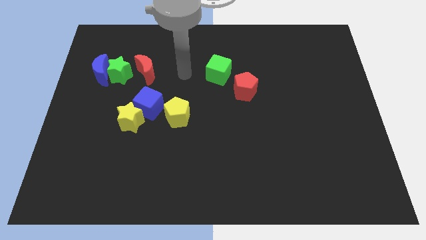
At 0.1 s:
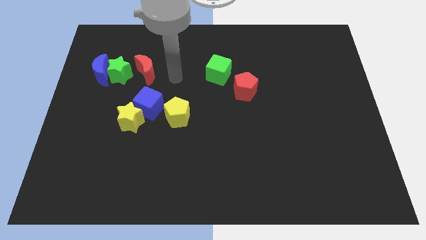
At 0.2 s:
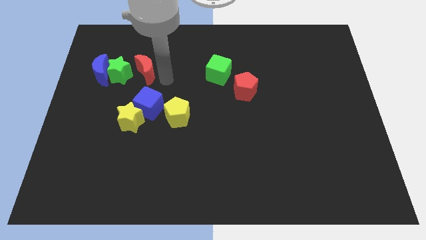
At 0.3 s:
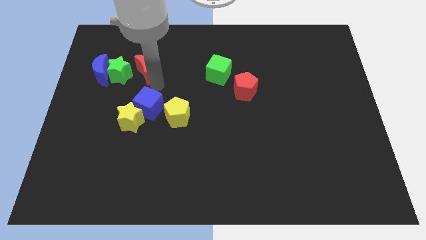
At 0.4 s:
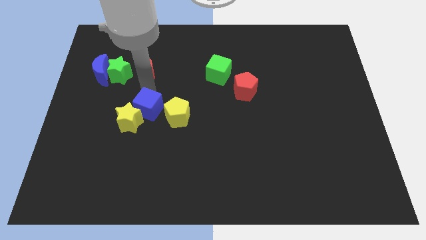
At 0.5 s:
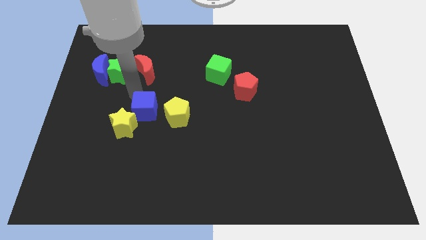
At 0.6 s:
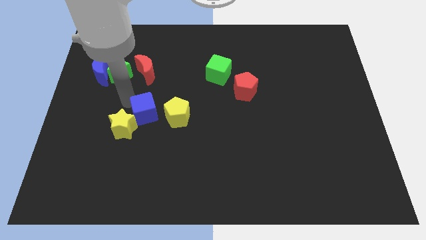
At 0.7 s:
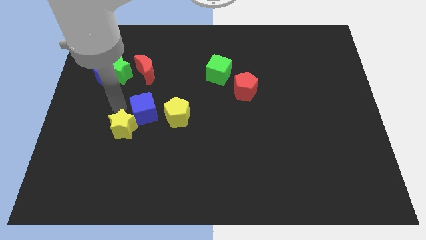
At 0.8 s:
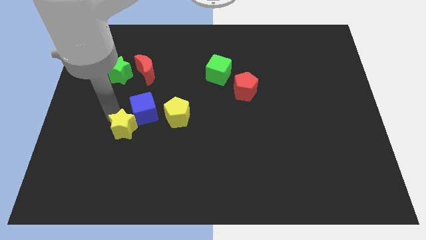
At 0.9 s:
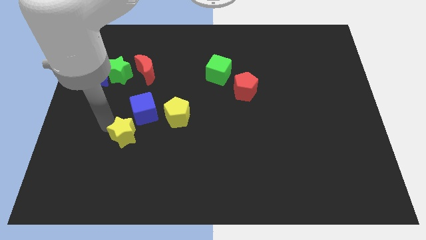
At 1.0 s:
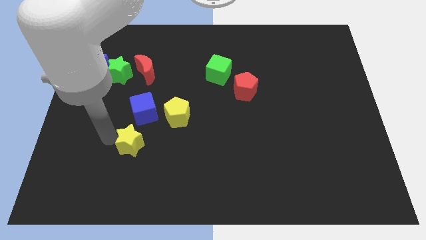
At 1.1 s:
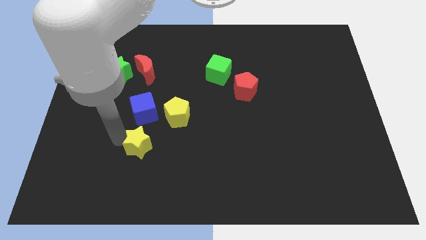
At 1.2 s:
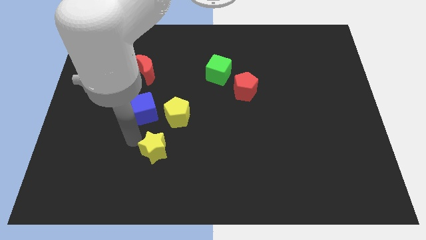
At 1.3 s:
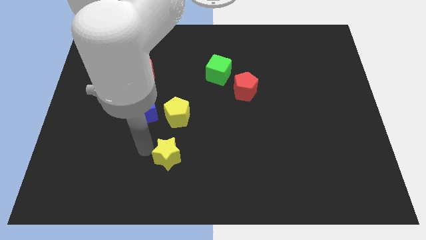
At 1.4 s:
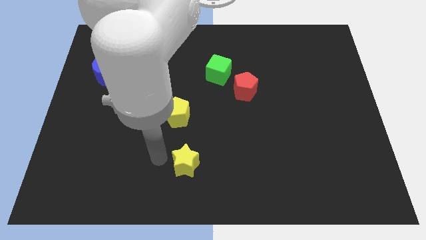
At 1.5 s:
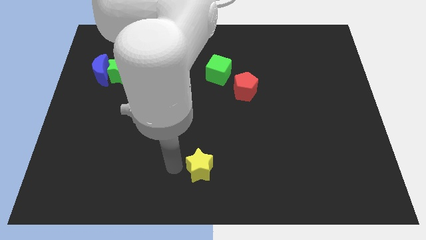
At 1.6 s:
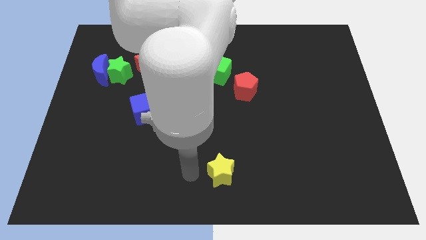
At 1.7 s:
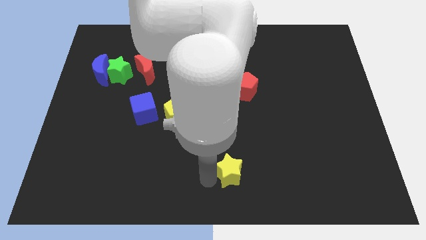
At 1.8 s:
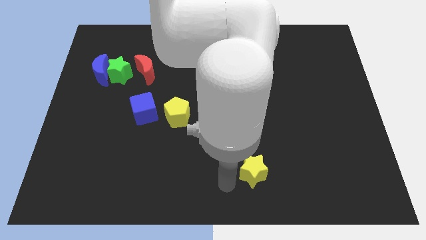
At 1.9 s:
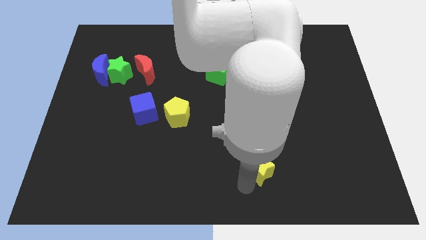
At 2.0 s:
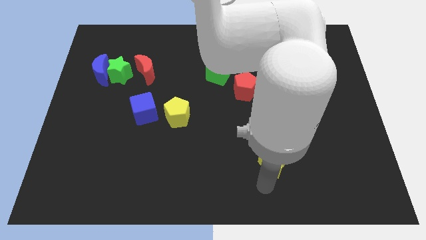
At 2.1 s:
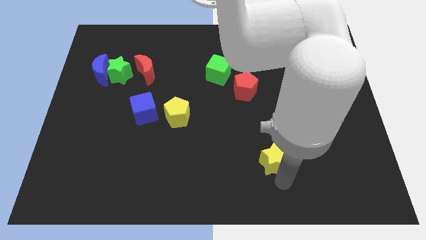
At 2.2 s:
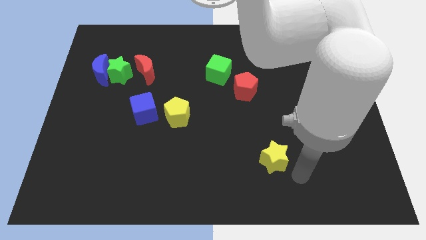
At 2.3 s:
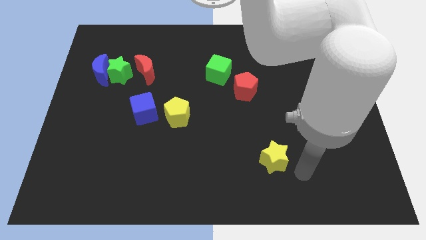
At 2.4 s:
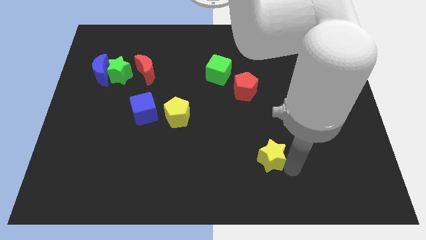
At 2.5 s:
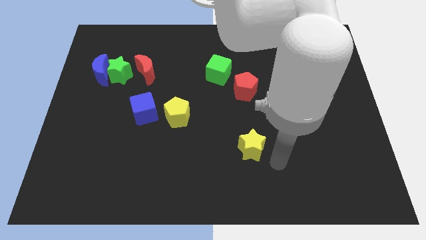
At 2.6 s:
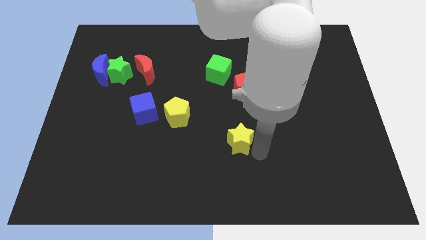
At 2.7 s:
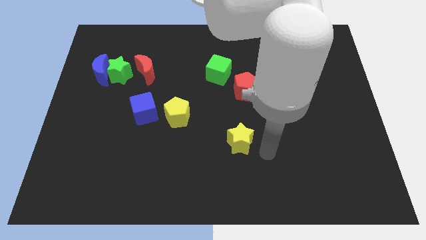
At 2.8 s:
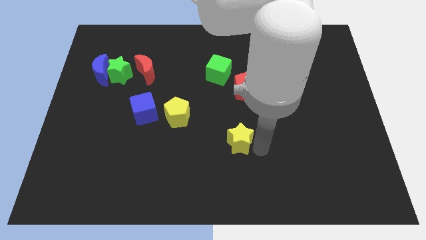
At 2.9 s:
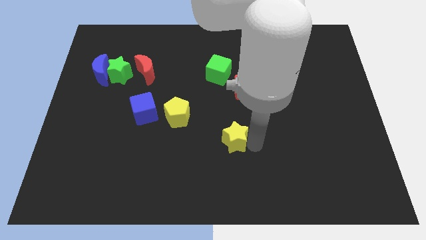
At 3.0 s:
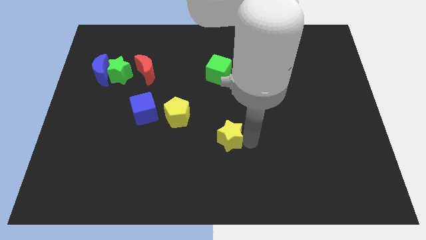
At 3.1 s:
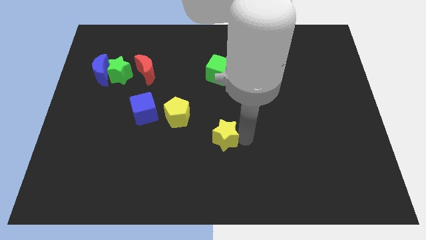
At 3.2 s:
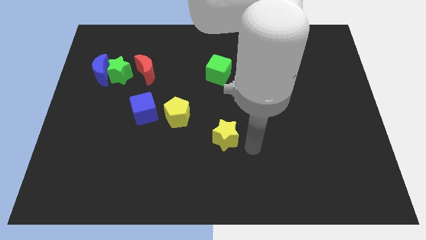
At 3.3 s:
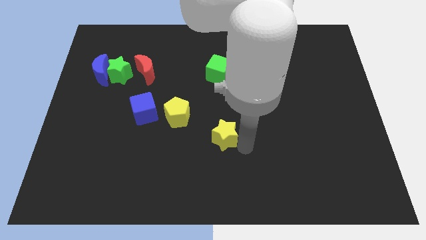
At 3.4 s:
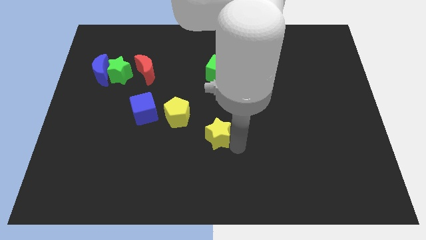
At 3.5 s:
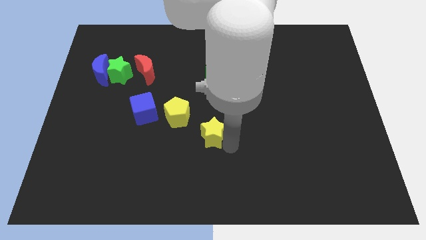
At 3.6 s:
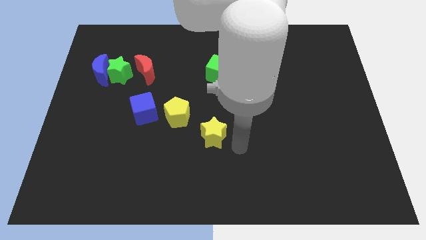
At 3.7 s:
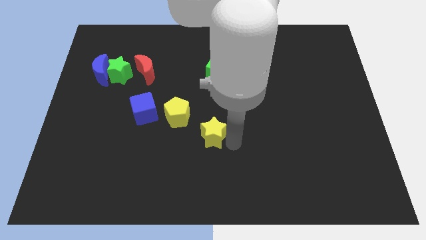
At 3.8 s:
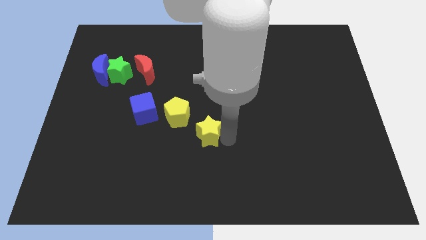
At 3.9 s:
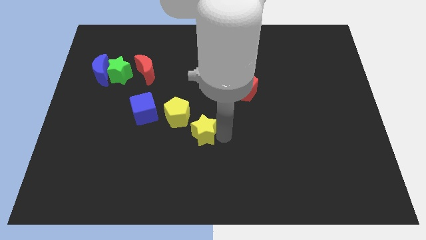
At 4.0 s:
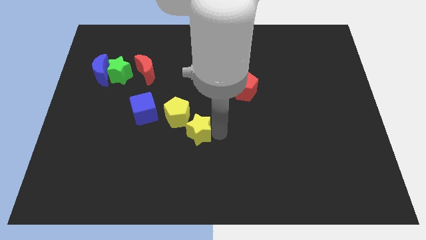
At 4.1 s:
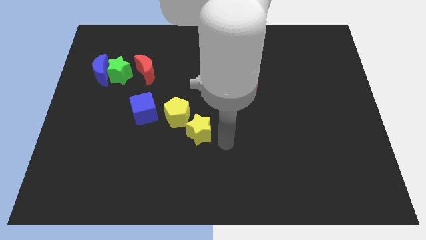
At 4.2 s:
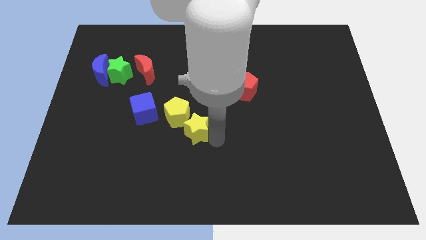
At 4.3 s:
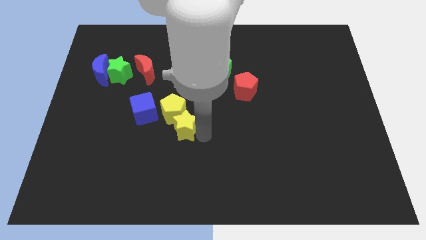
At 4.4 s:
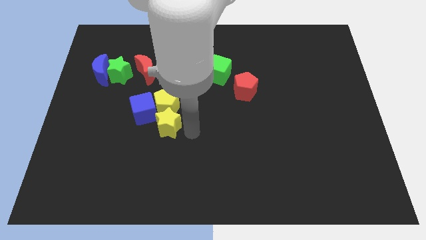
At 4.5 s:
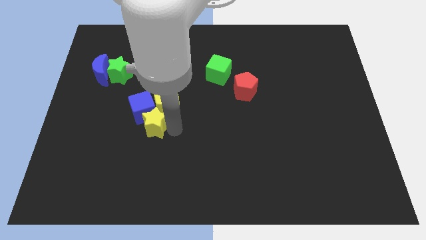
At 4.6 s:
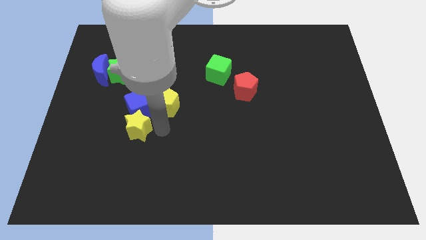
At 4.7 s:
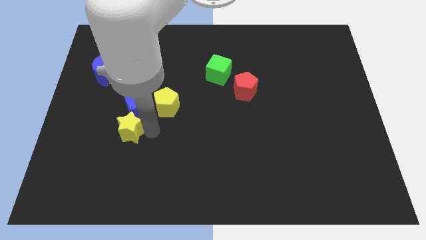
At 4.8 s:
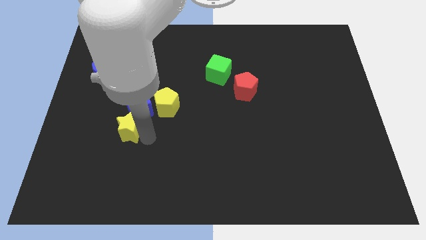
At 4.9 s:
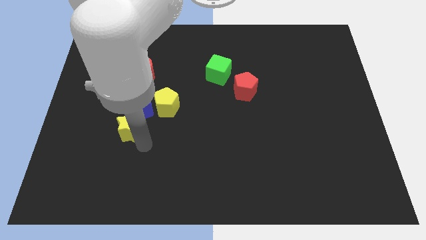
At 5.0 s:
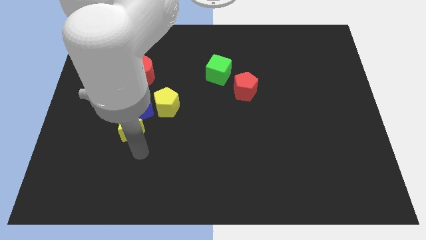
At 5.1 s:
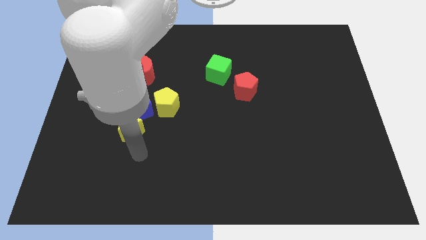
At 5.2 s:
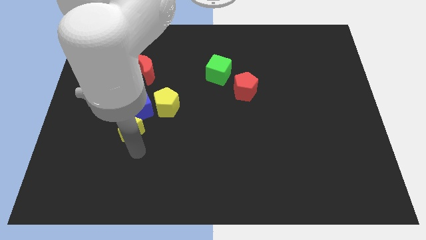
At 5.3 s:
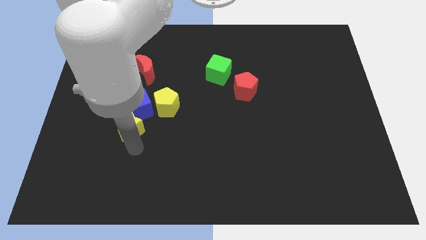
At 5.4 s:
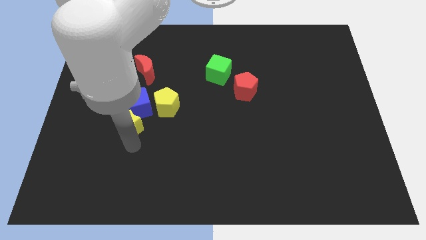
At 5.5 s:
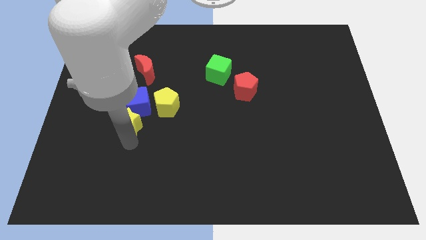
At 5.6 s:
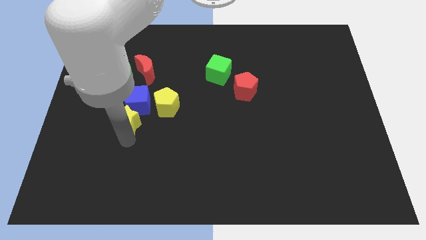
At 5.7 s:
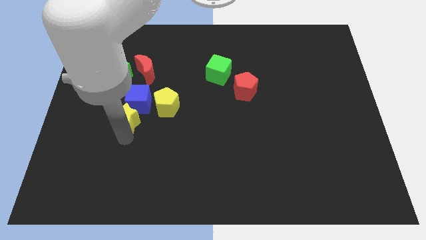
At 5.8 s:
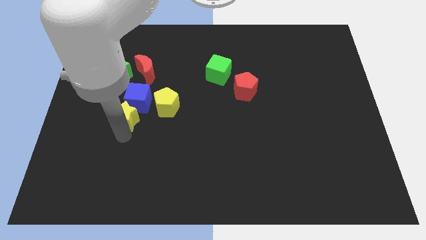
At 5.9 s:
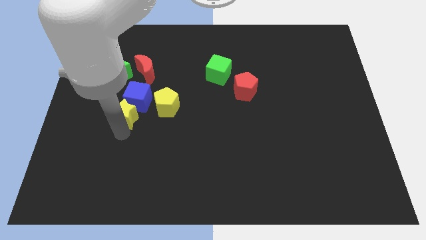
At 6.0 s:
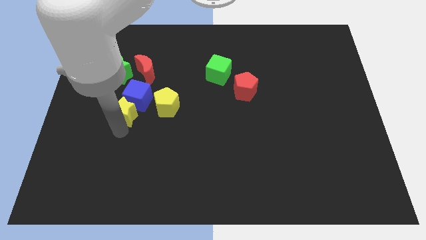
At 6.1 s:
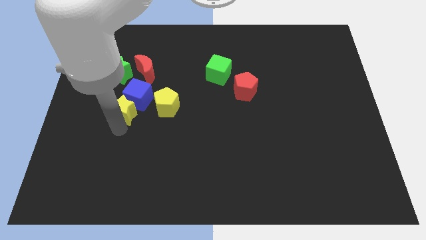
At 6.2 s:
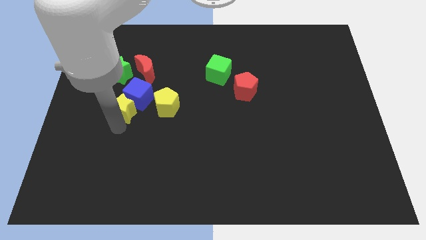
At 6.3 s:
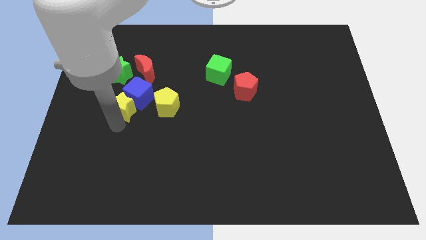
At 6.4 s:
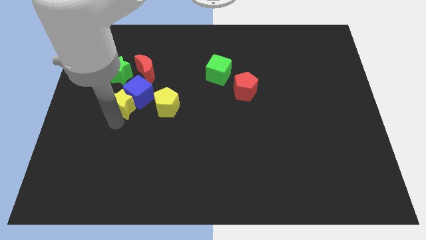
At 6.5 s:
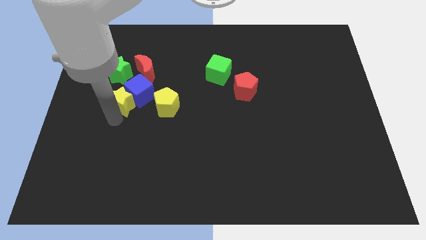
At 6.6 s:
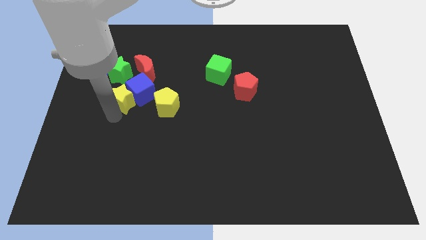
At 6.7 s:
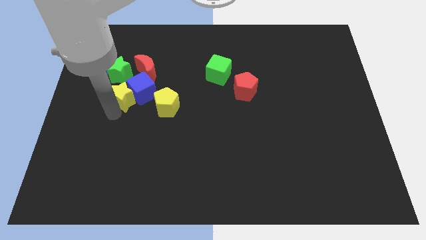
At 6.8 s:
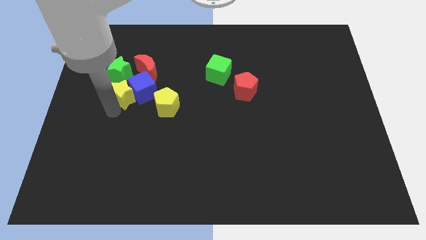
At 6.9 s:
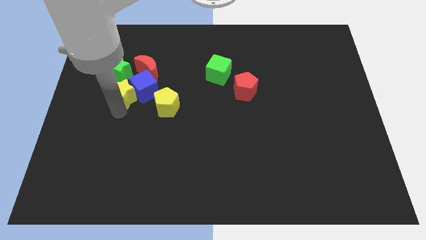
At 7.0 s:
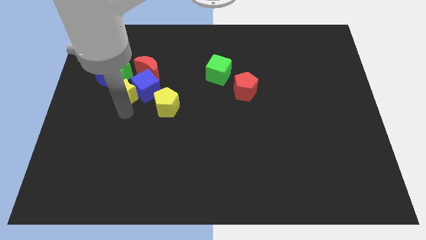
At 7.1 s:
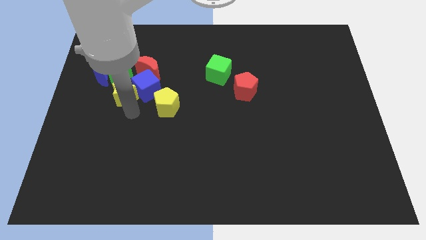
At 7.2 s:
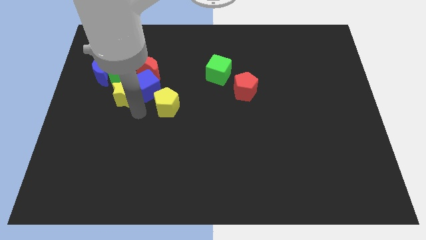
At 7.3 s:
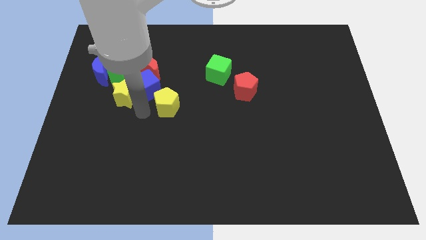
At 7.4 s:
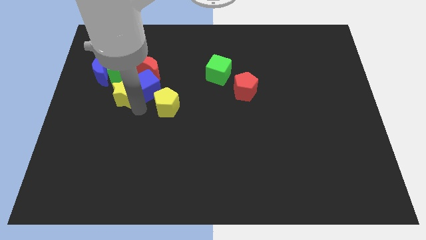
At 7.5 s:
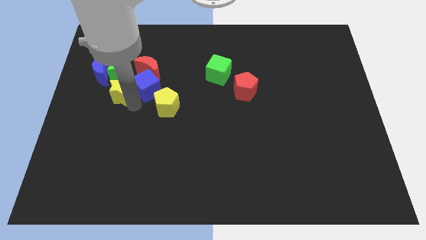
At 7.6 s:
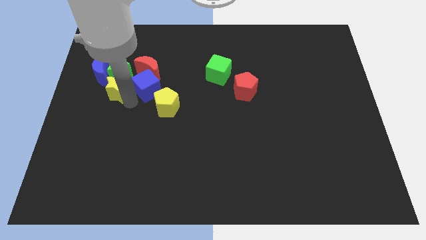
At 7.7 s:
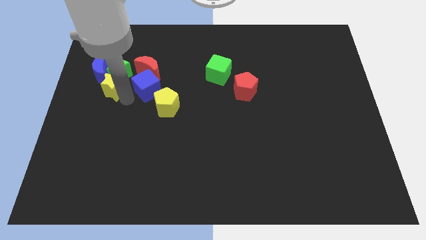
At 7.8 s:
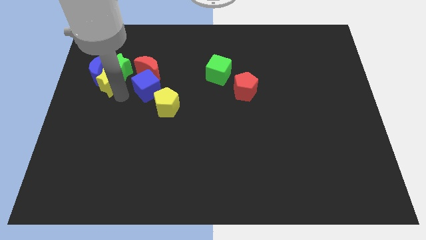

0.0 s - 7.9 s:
put the yellow star close to the blue moon
